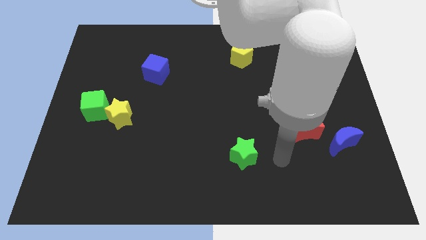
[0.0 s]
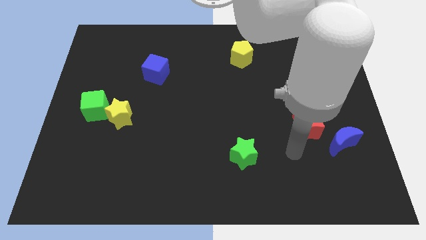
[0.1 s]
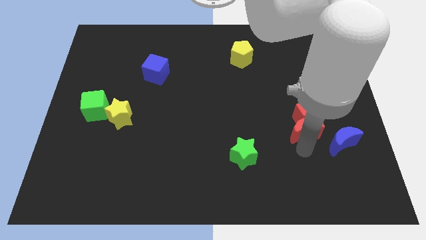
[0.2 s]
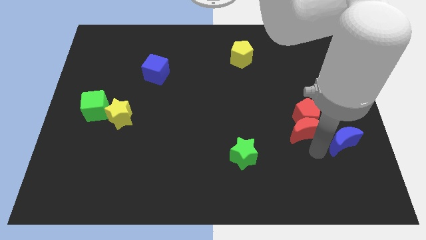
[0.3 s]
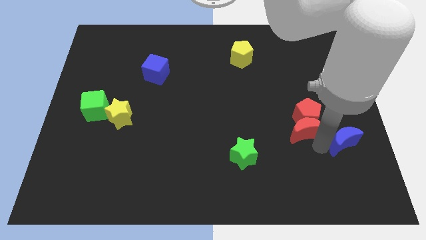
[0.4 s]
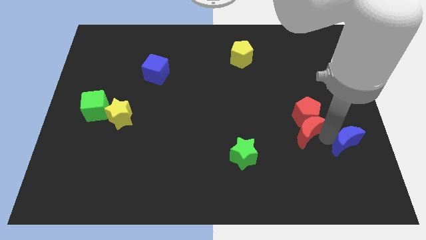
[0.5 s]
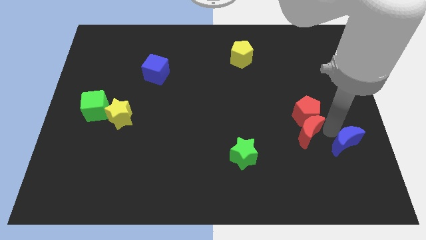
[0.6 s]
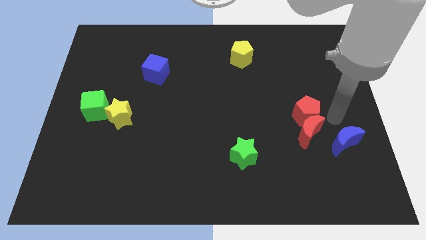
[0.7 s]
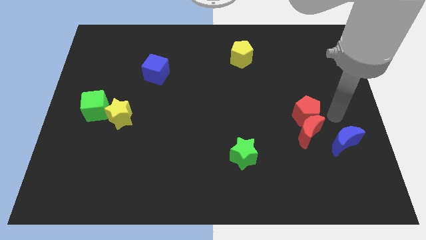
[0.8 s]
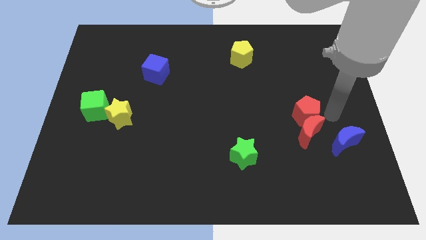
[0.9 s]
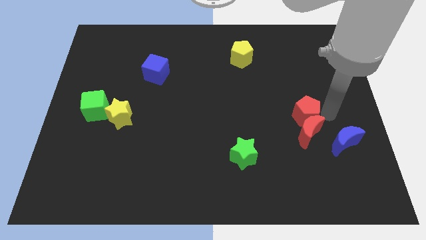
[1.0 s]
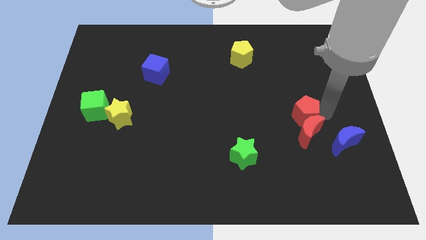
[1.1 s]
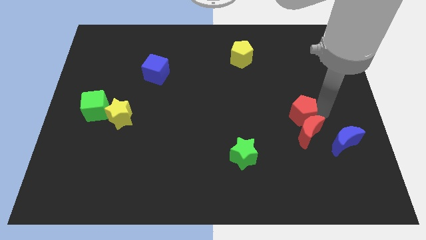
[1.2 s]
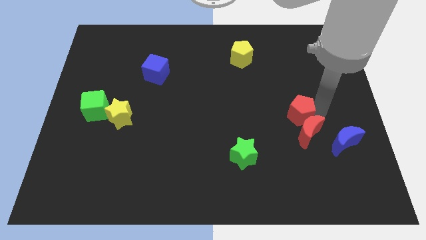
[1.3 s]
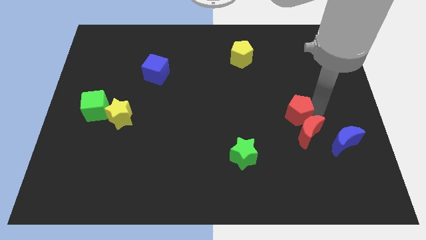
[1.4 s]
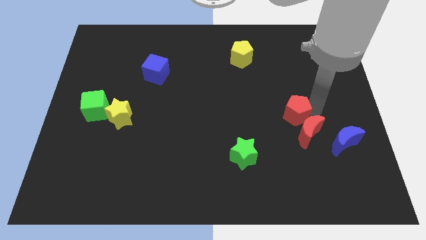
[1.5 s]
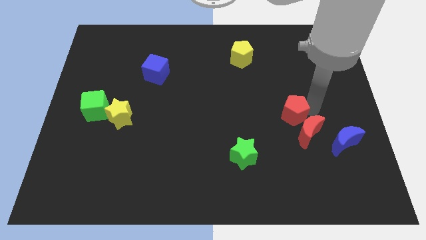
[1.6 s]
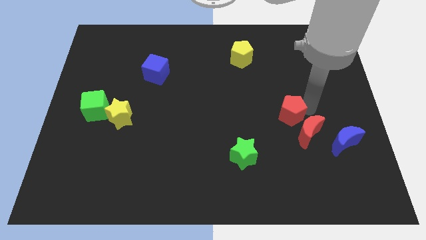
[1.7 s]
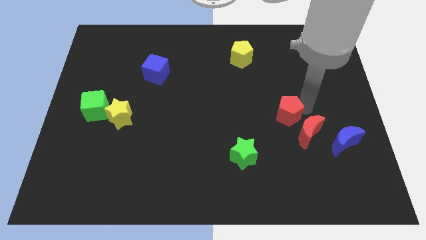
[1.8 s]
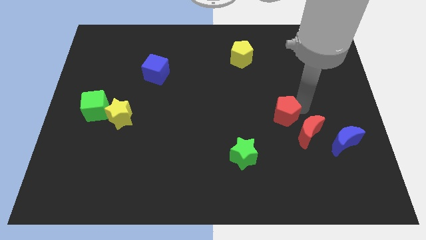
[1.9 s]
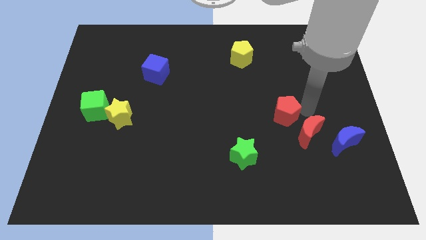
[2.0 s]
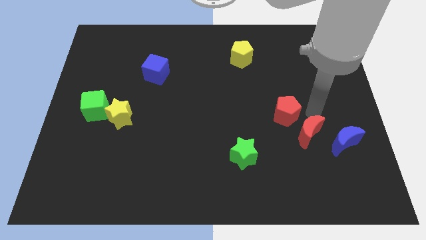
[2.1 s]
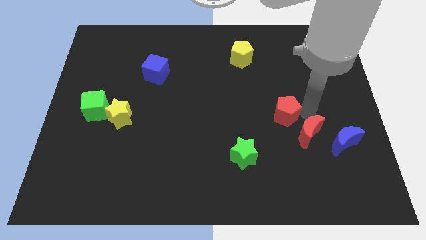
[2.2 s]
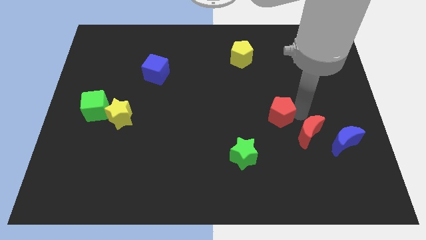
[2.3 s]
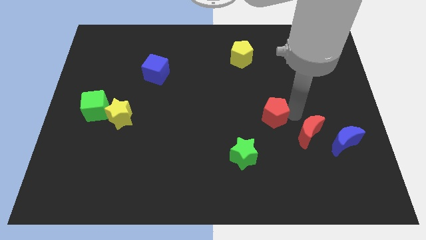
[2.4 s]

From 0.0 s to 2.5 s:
slightly slide the red pentagon left

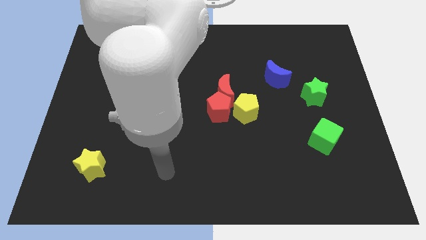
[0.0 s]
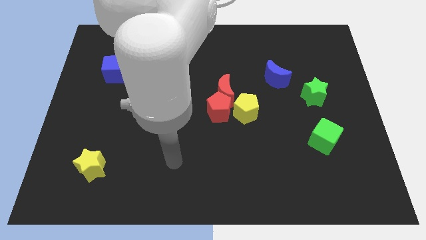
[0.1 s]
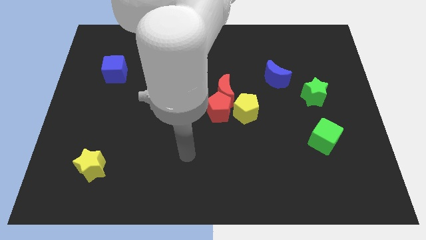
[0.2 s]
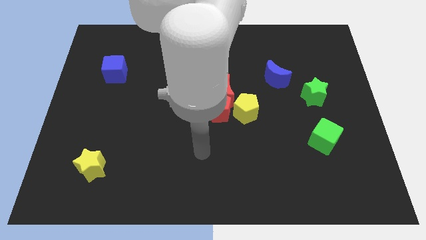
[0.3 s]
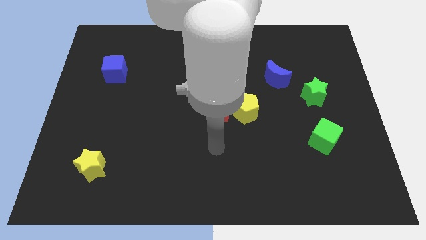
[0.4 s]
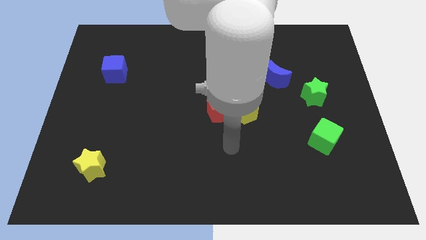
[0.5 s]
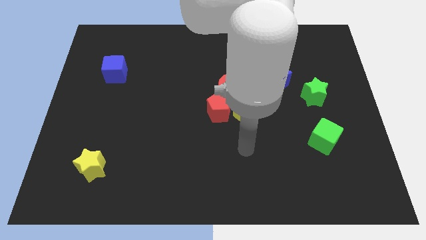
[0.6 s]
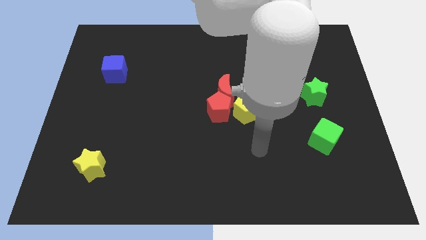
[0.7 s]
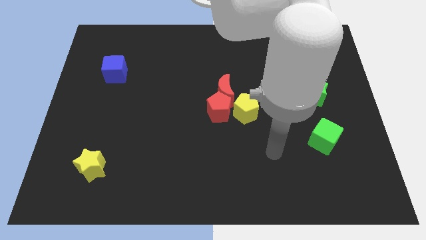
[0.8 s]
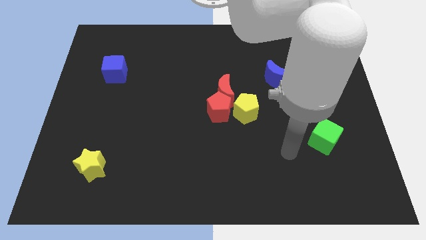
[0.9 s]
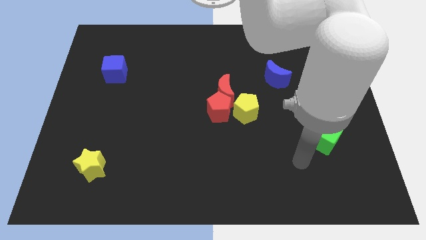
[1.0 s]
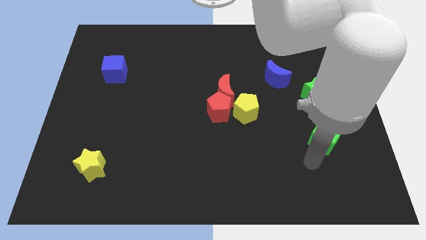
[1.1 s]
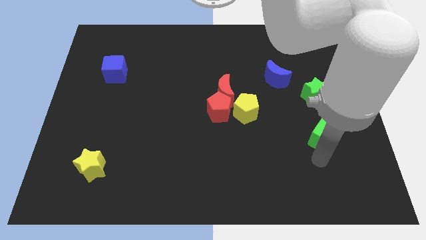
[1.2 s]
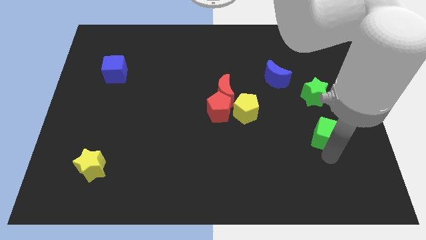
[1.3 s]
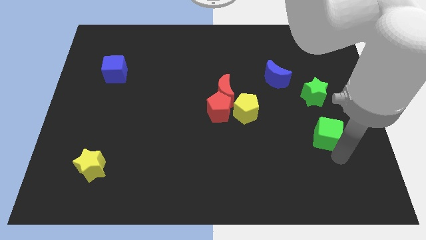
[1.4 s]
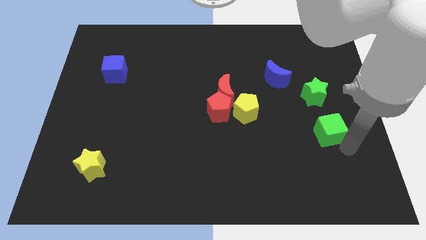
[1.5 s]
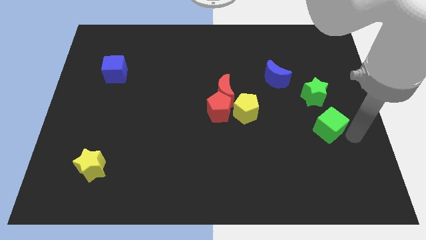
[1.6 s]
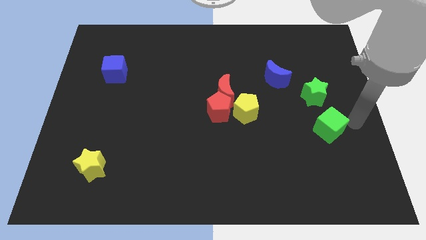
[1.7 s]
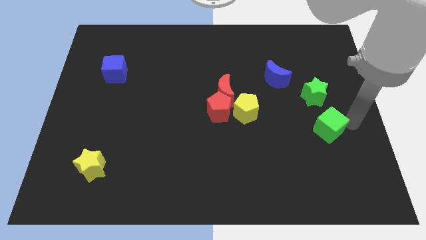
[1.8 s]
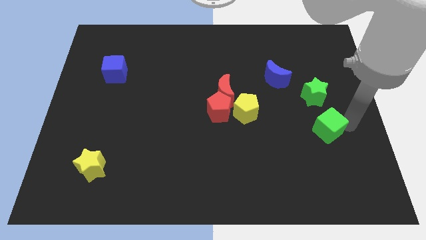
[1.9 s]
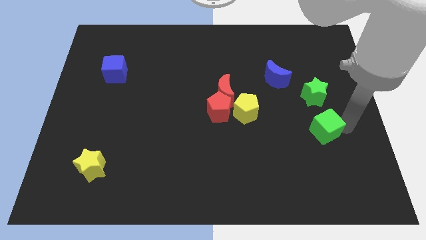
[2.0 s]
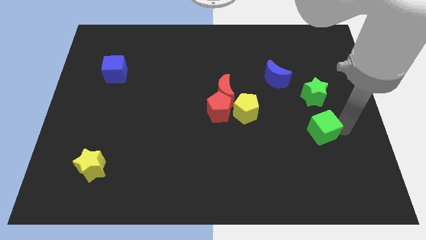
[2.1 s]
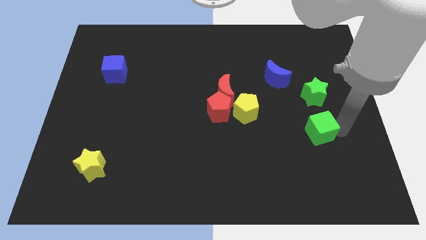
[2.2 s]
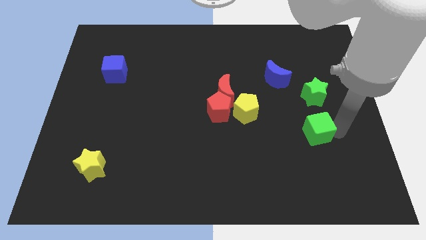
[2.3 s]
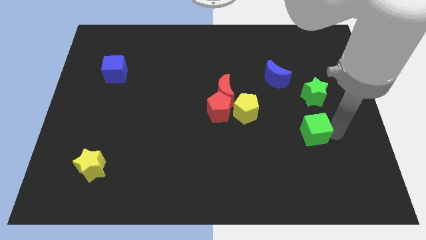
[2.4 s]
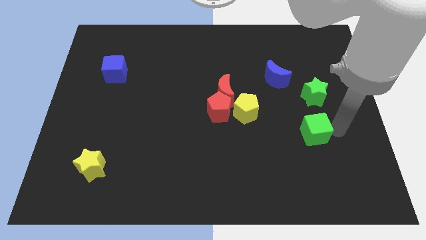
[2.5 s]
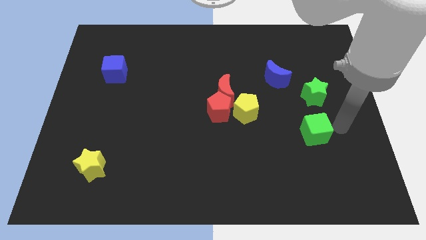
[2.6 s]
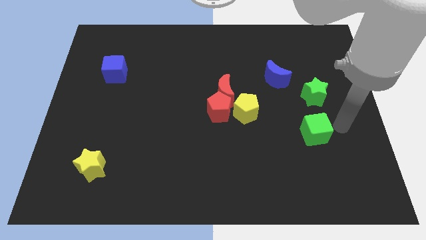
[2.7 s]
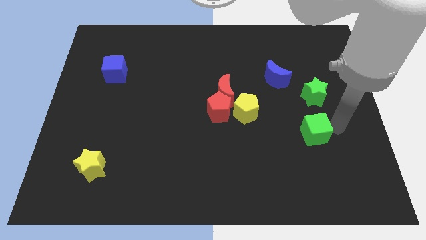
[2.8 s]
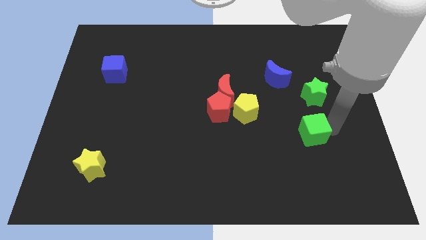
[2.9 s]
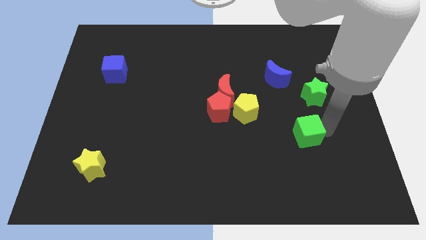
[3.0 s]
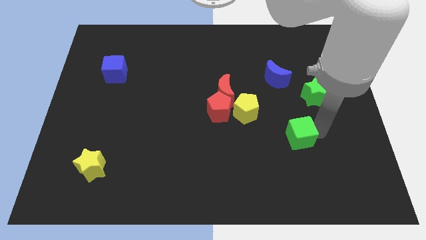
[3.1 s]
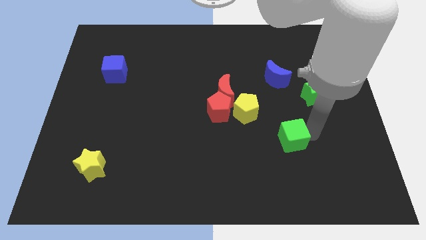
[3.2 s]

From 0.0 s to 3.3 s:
push the green cube to the left somewhat

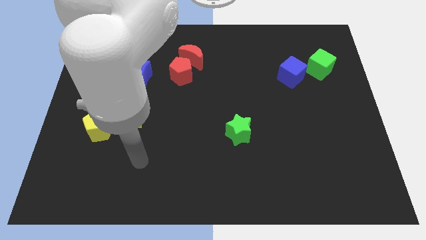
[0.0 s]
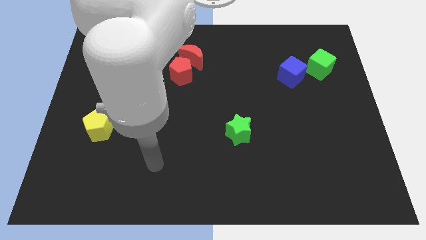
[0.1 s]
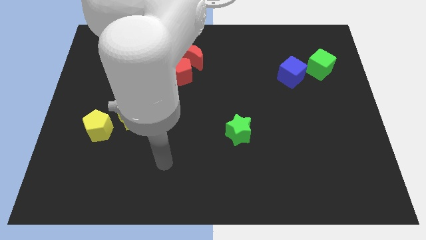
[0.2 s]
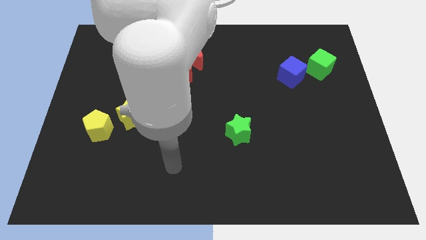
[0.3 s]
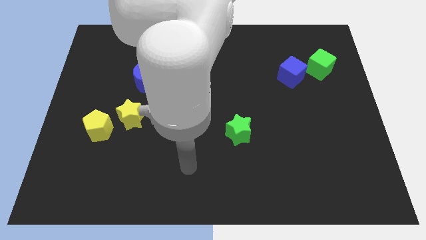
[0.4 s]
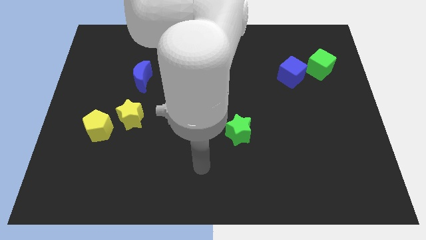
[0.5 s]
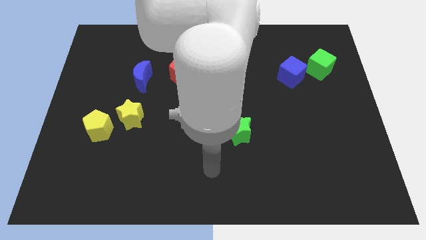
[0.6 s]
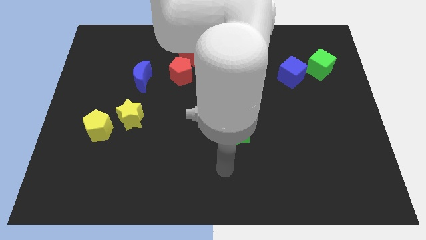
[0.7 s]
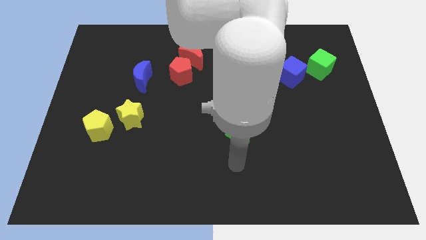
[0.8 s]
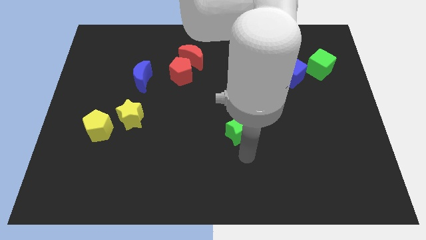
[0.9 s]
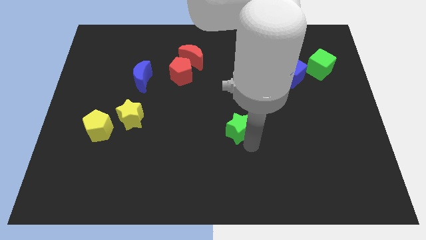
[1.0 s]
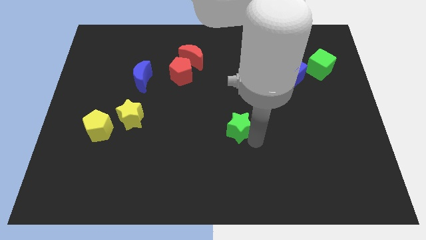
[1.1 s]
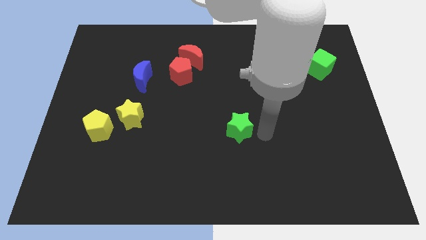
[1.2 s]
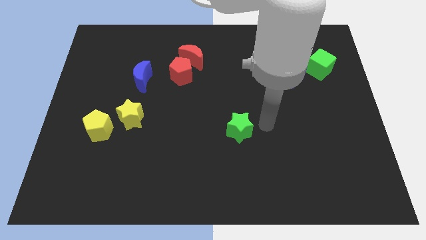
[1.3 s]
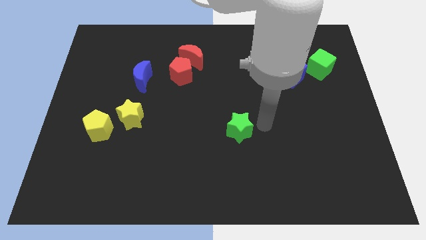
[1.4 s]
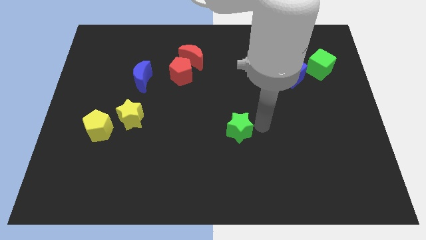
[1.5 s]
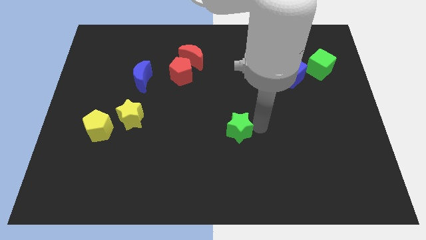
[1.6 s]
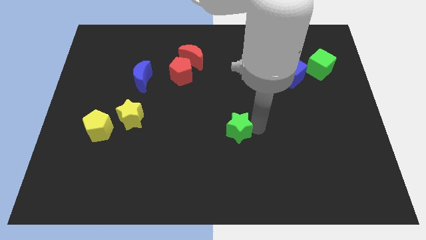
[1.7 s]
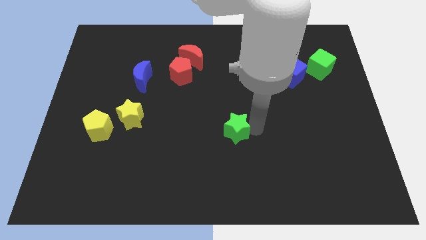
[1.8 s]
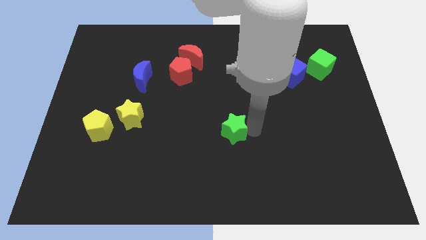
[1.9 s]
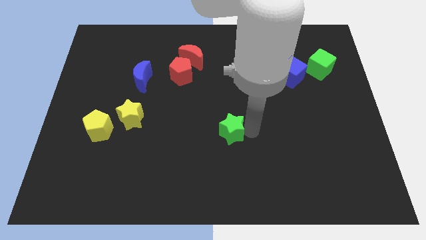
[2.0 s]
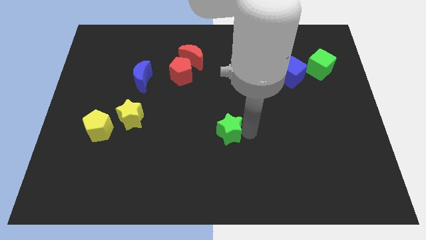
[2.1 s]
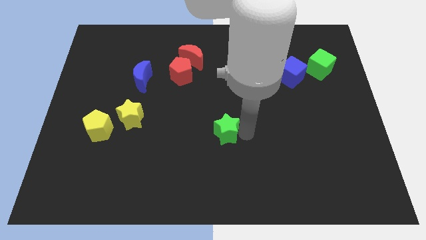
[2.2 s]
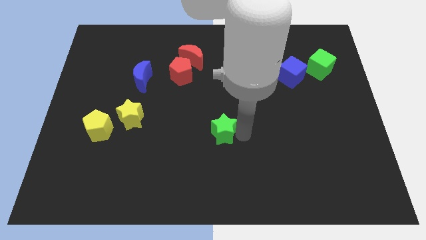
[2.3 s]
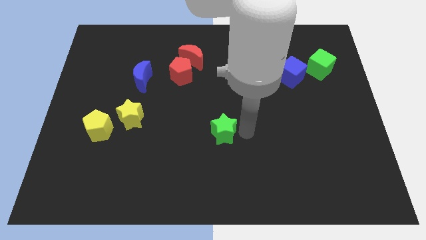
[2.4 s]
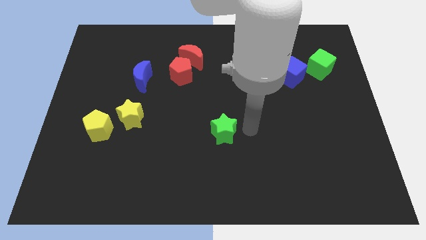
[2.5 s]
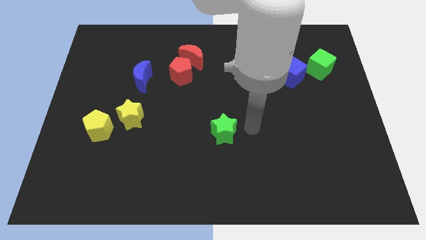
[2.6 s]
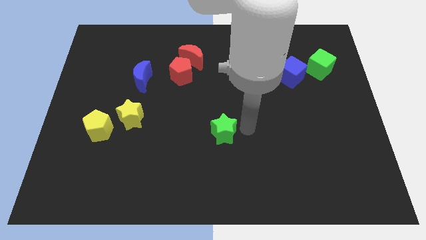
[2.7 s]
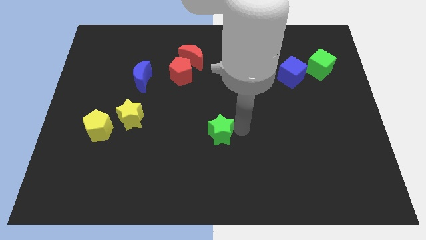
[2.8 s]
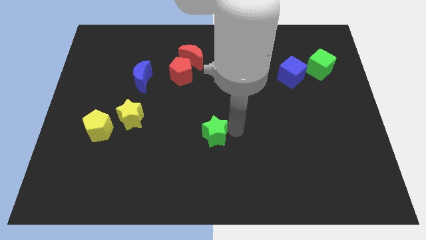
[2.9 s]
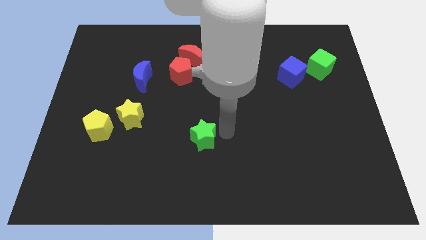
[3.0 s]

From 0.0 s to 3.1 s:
slightly move the green star to the left
